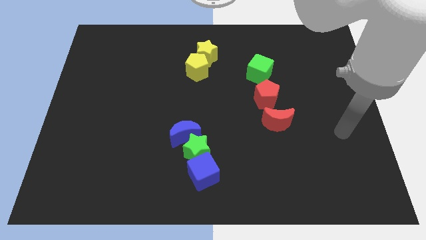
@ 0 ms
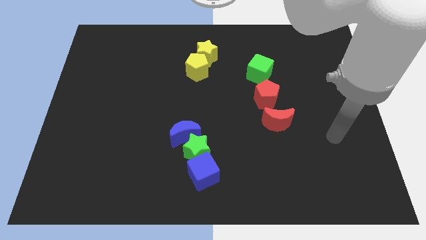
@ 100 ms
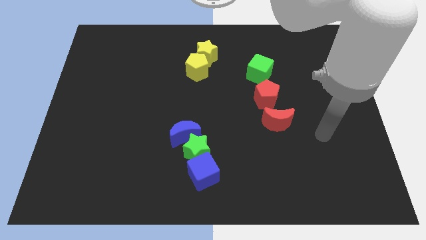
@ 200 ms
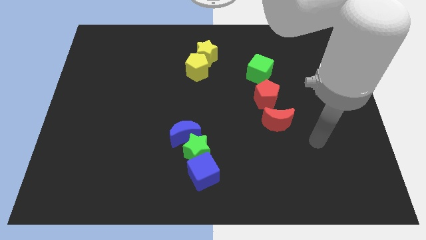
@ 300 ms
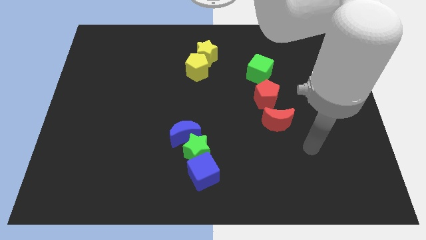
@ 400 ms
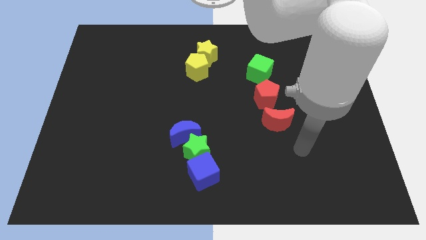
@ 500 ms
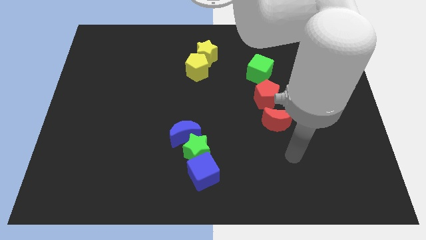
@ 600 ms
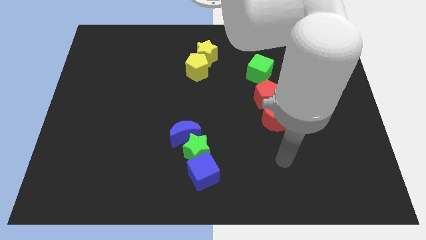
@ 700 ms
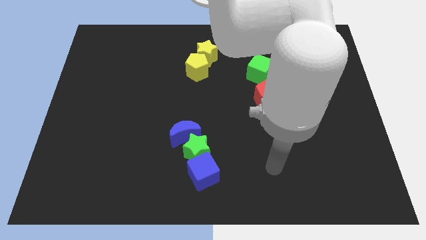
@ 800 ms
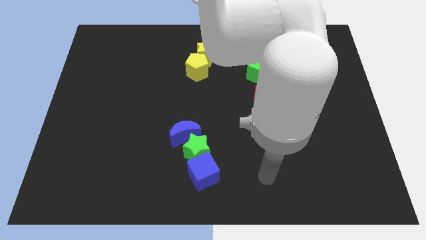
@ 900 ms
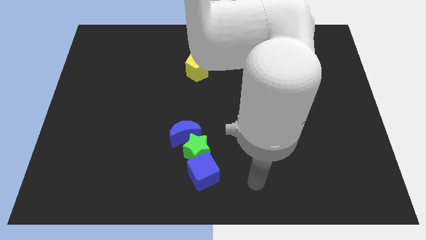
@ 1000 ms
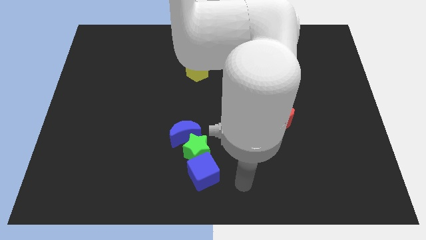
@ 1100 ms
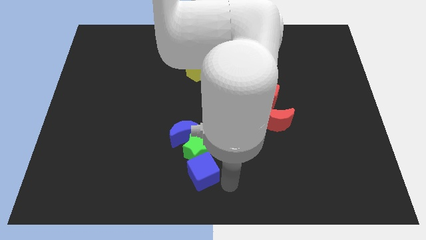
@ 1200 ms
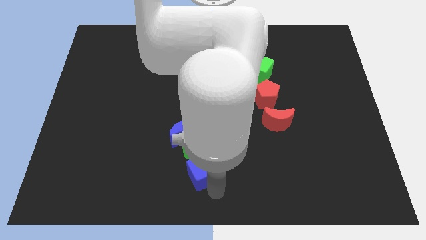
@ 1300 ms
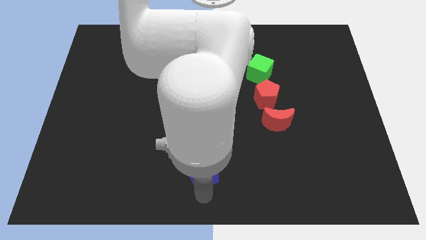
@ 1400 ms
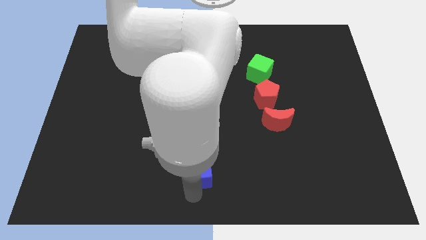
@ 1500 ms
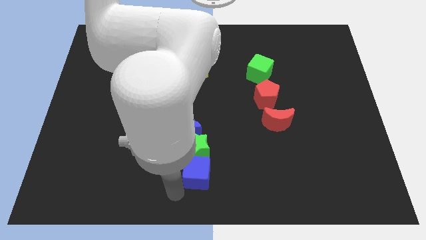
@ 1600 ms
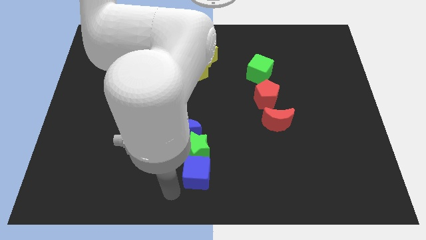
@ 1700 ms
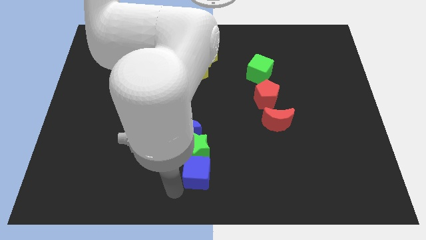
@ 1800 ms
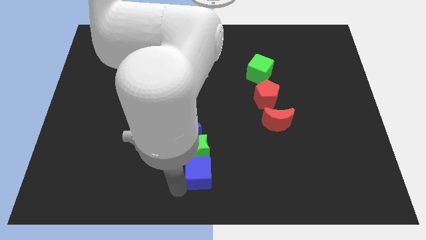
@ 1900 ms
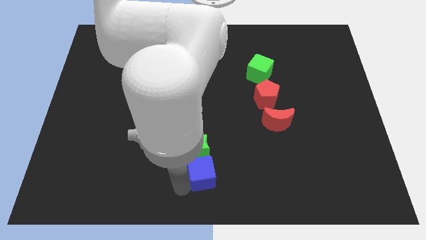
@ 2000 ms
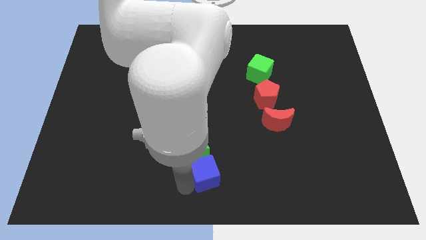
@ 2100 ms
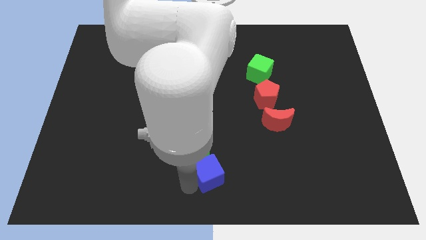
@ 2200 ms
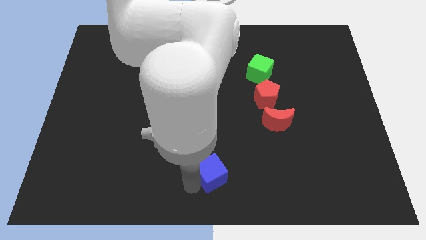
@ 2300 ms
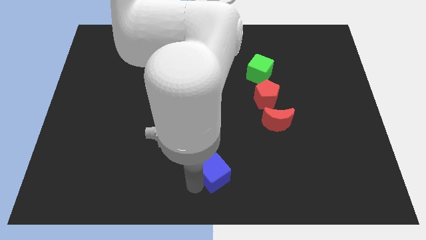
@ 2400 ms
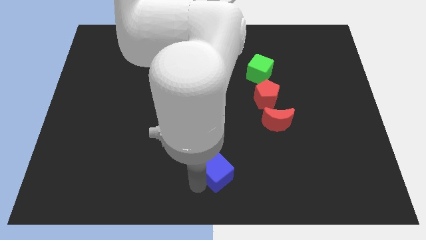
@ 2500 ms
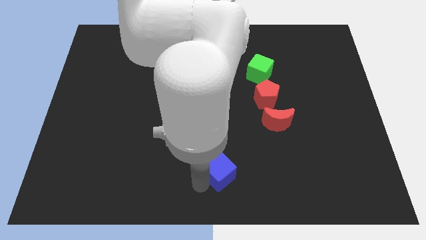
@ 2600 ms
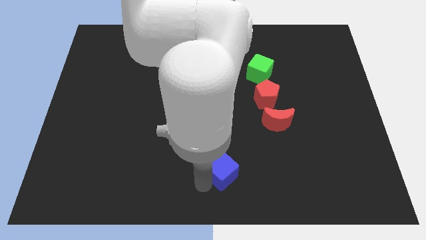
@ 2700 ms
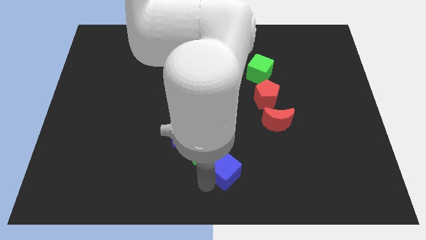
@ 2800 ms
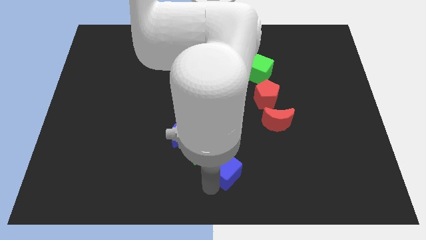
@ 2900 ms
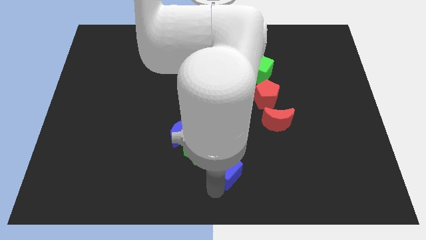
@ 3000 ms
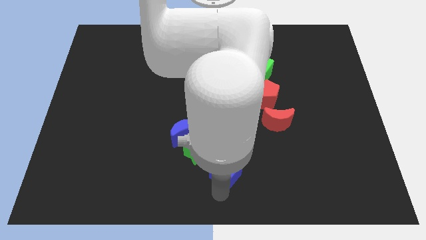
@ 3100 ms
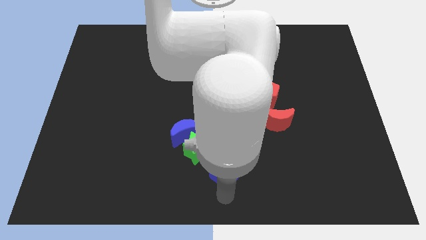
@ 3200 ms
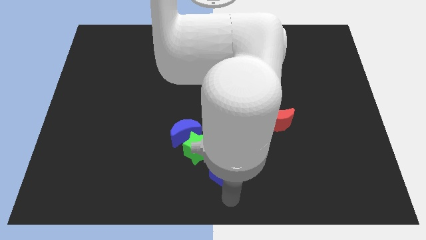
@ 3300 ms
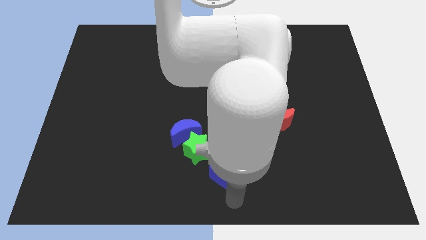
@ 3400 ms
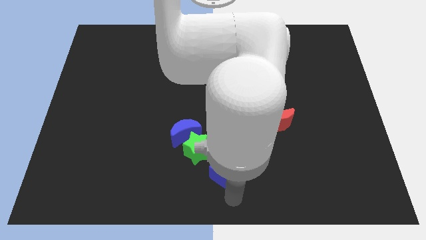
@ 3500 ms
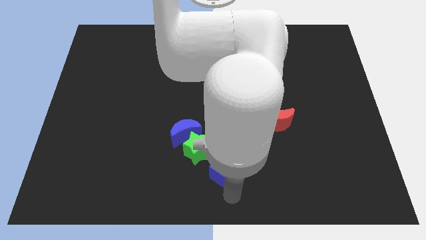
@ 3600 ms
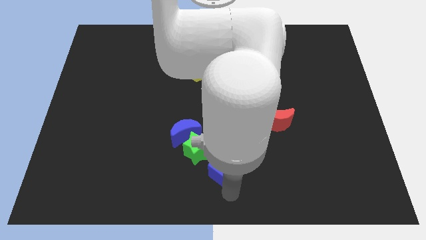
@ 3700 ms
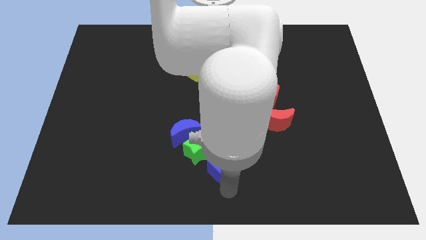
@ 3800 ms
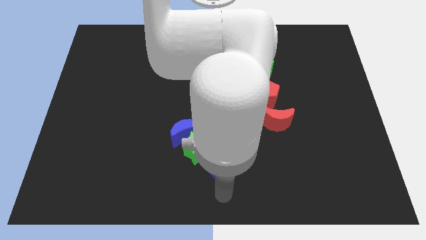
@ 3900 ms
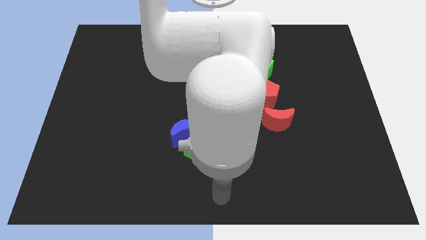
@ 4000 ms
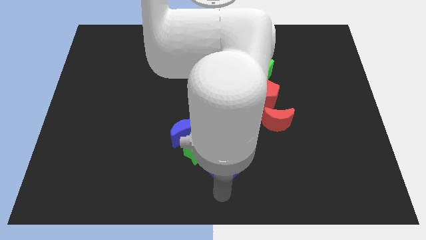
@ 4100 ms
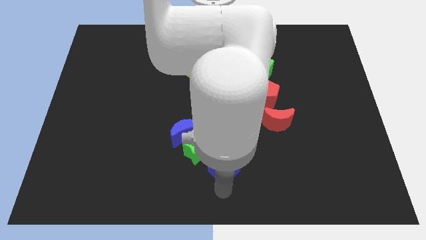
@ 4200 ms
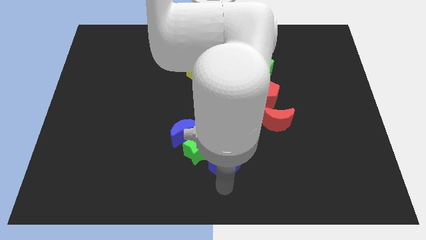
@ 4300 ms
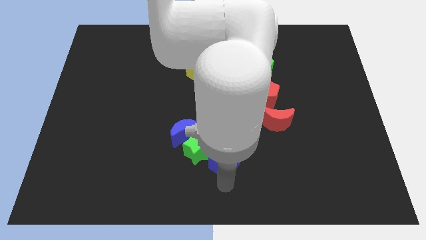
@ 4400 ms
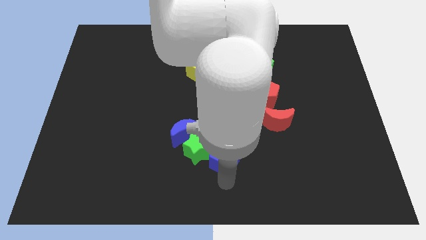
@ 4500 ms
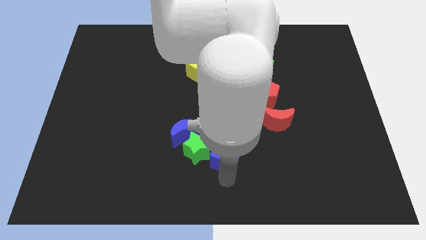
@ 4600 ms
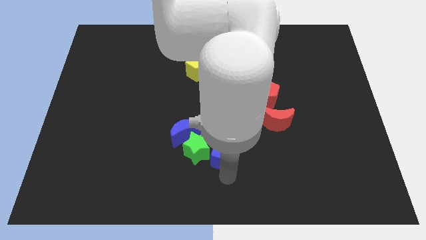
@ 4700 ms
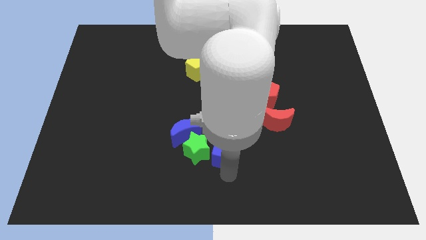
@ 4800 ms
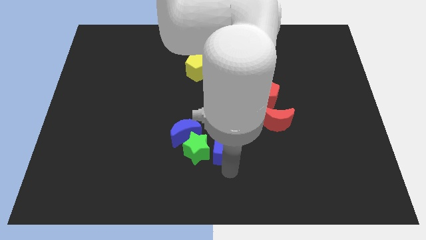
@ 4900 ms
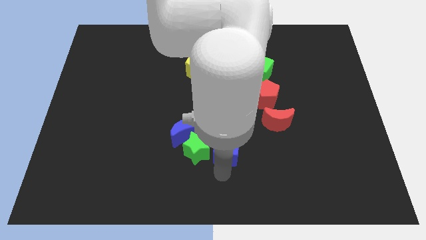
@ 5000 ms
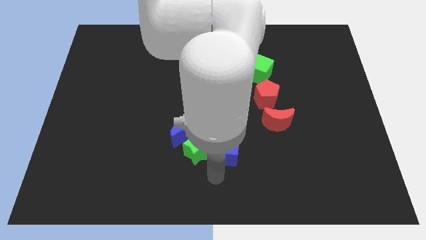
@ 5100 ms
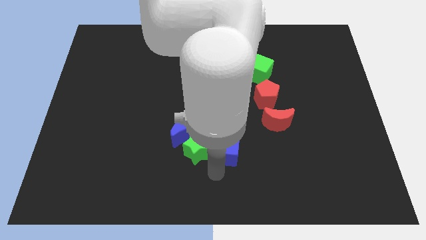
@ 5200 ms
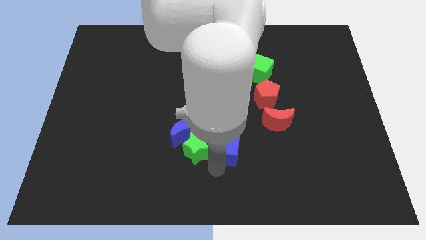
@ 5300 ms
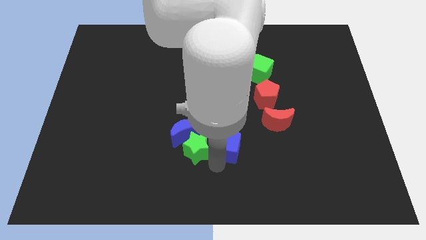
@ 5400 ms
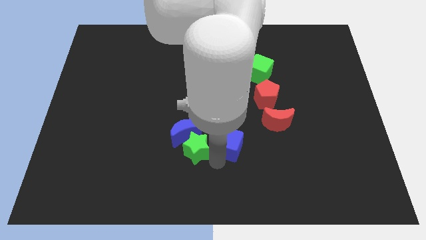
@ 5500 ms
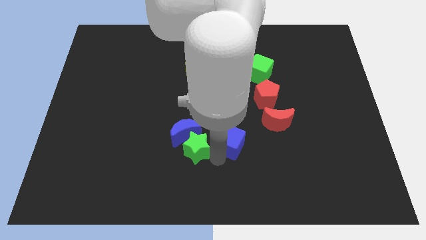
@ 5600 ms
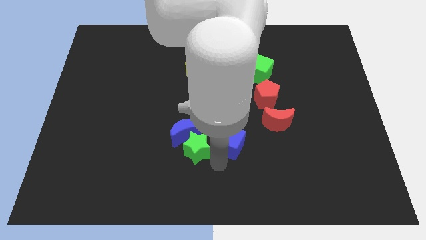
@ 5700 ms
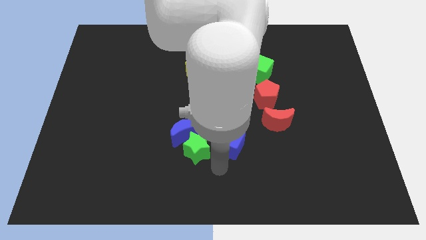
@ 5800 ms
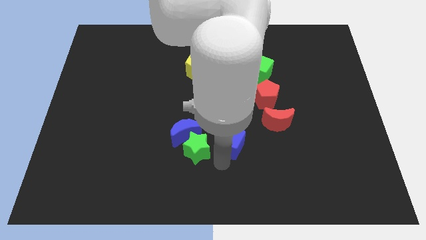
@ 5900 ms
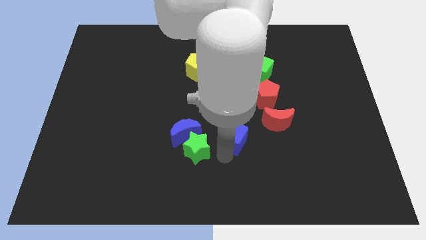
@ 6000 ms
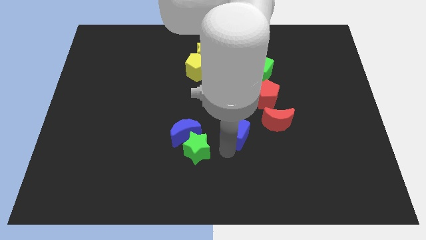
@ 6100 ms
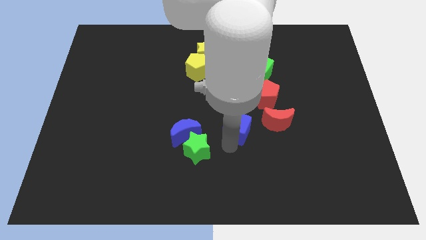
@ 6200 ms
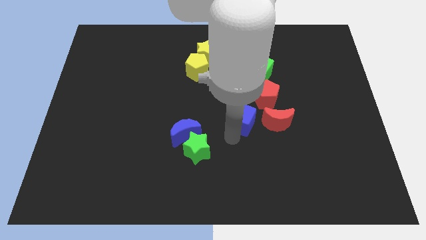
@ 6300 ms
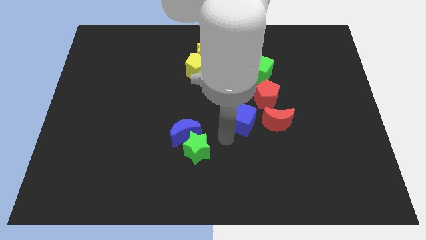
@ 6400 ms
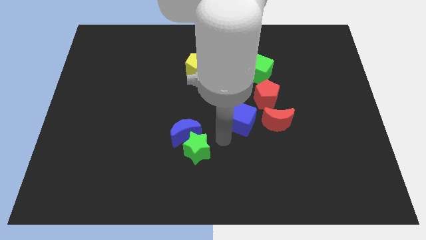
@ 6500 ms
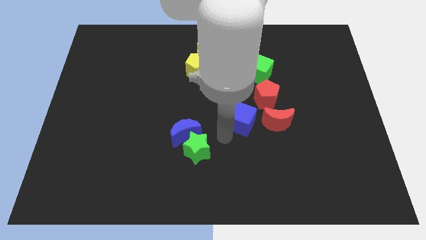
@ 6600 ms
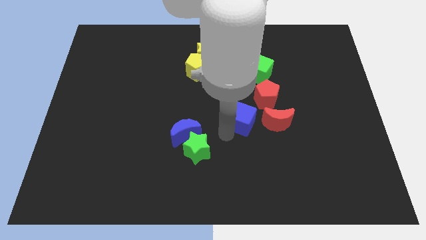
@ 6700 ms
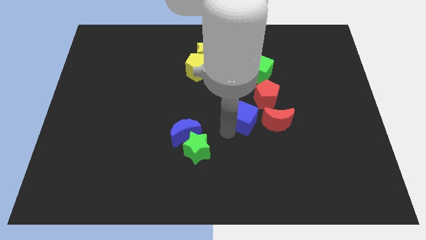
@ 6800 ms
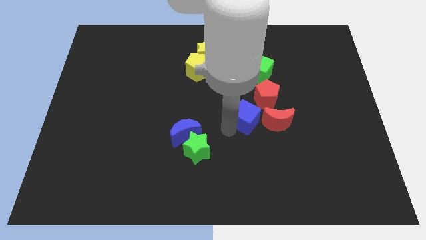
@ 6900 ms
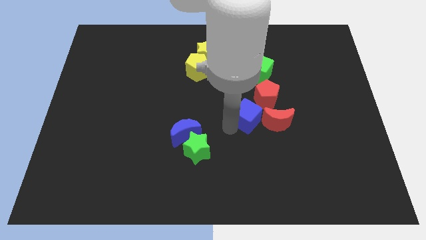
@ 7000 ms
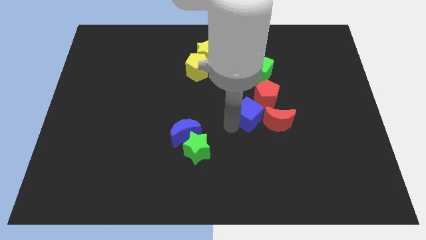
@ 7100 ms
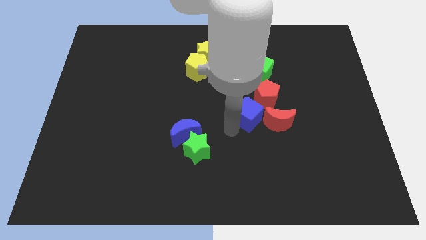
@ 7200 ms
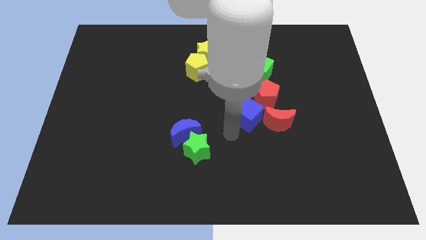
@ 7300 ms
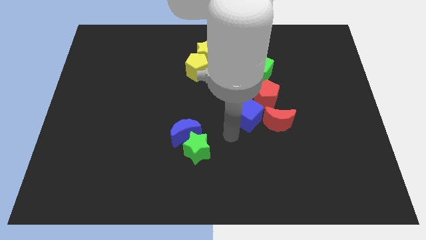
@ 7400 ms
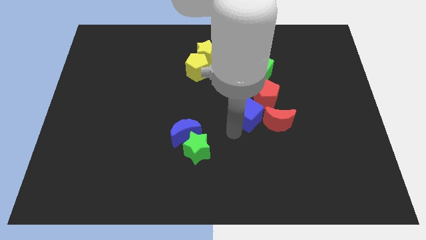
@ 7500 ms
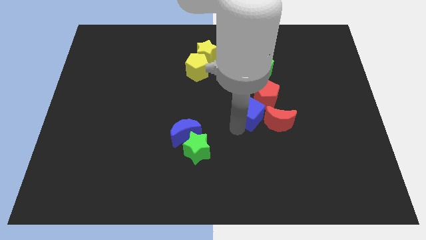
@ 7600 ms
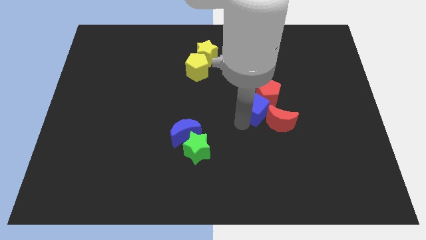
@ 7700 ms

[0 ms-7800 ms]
put the blue cube to the red pentagon

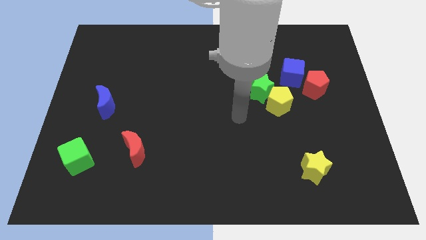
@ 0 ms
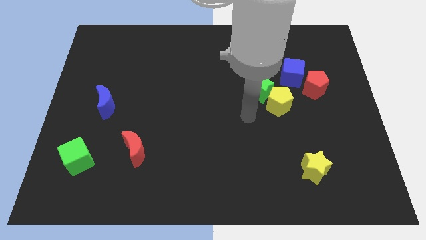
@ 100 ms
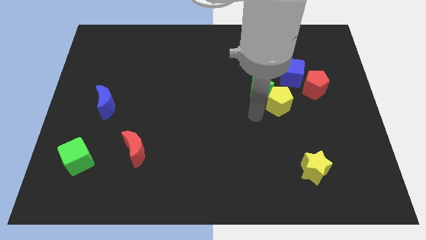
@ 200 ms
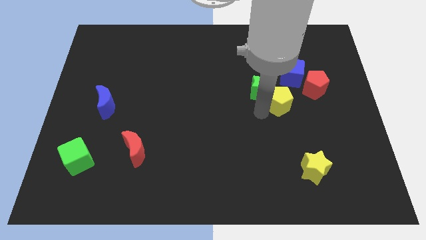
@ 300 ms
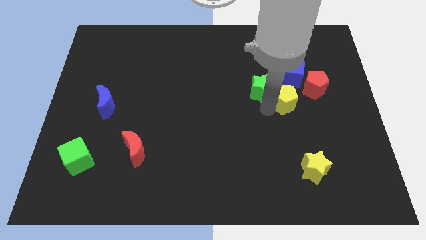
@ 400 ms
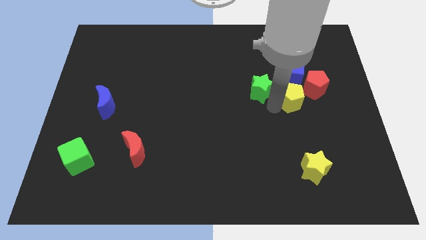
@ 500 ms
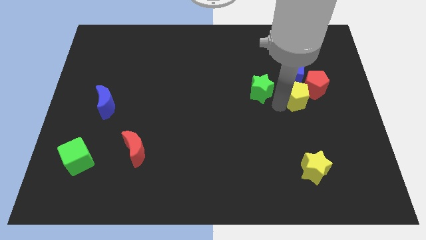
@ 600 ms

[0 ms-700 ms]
push the yellow pentagon to the red pentagon
